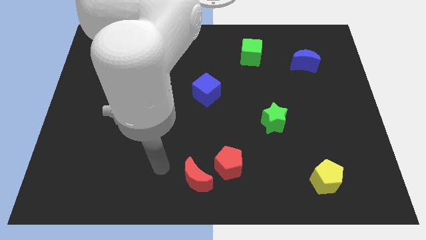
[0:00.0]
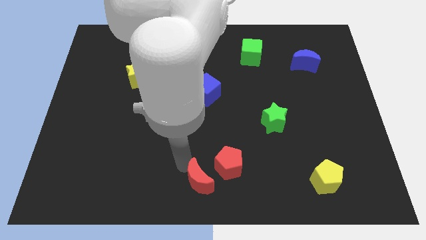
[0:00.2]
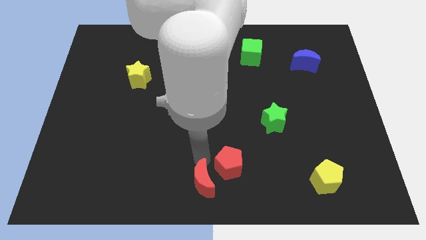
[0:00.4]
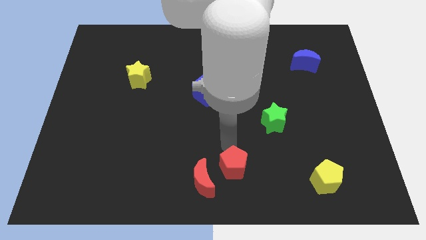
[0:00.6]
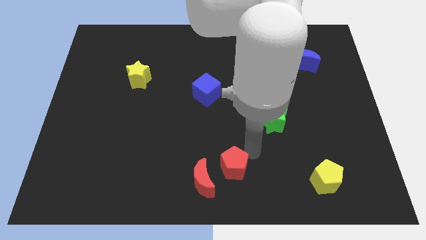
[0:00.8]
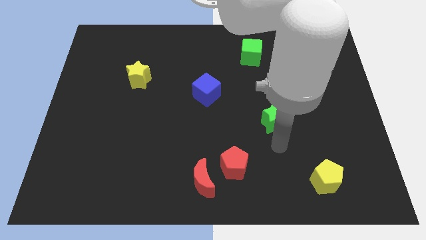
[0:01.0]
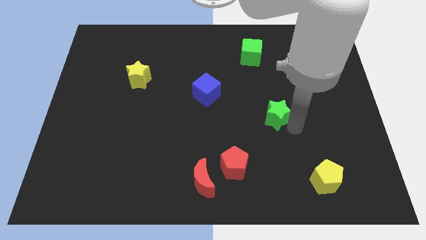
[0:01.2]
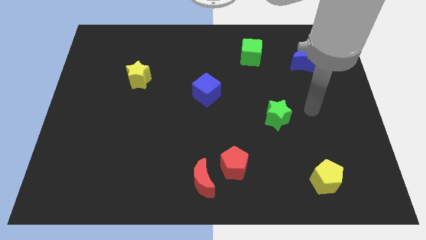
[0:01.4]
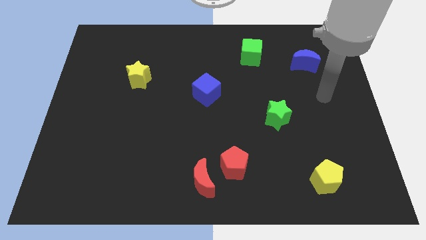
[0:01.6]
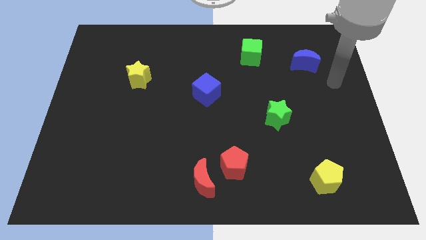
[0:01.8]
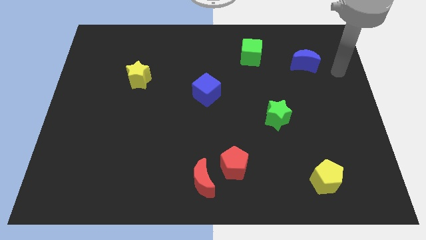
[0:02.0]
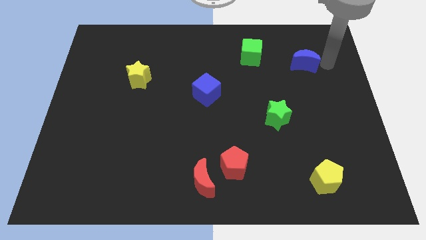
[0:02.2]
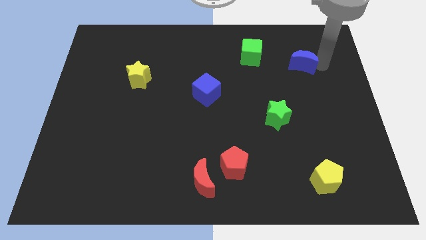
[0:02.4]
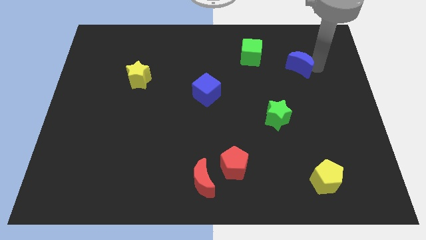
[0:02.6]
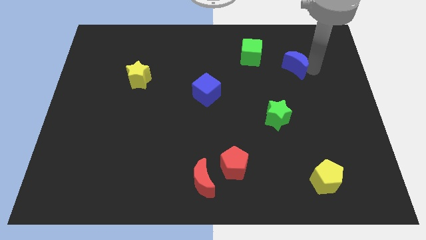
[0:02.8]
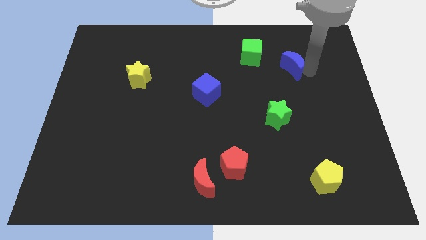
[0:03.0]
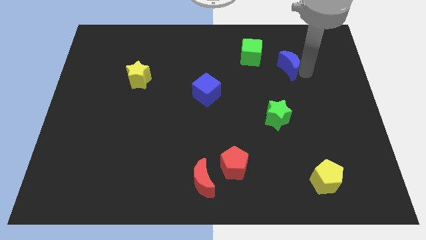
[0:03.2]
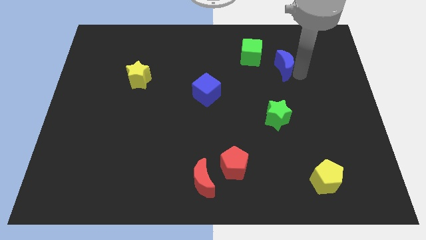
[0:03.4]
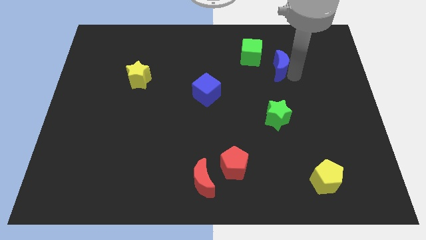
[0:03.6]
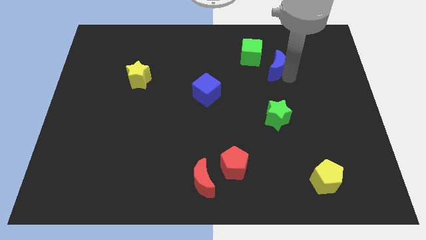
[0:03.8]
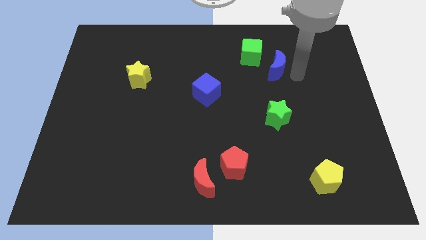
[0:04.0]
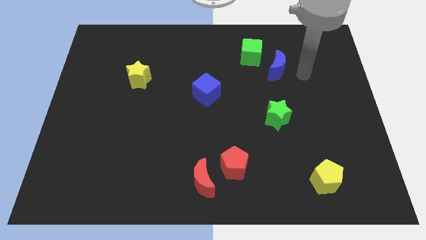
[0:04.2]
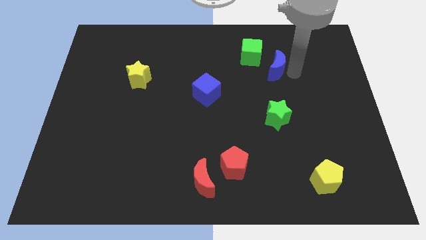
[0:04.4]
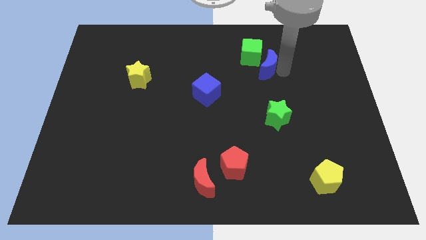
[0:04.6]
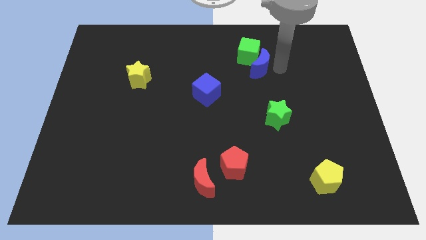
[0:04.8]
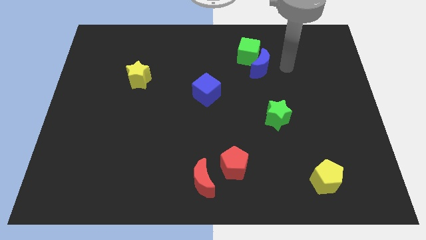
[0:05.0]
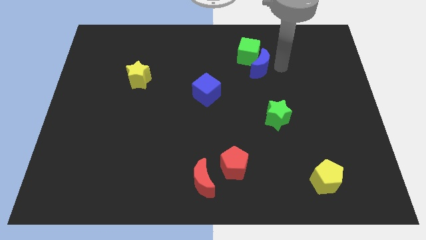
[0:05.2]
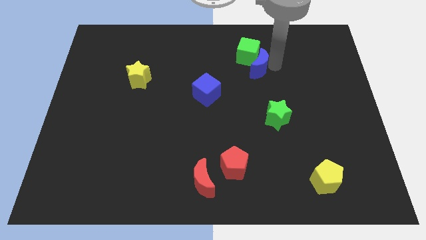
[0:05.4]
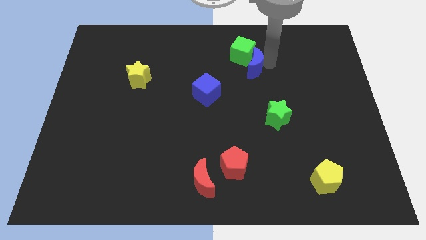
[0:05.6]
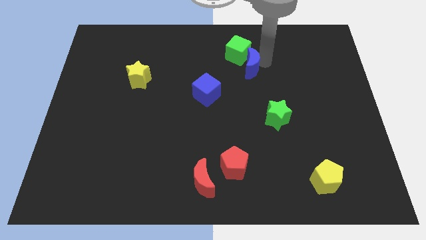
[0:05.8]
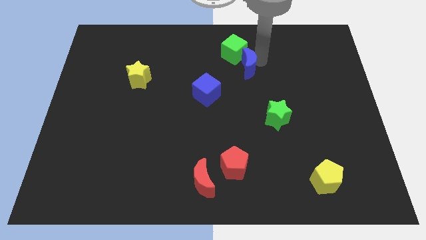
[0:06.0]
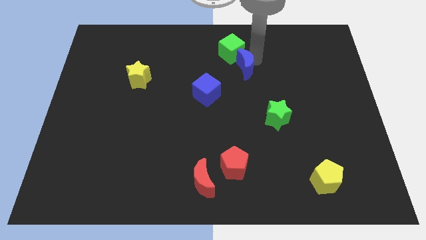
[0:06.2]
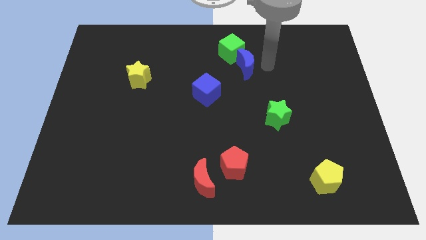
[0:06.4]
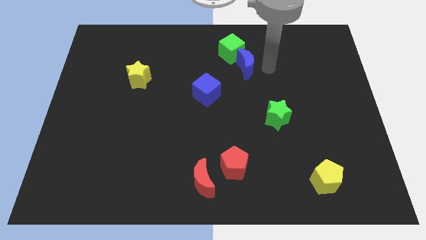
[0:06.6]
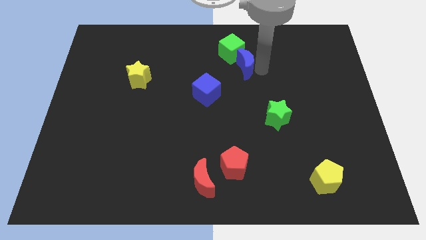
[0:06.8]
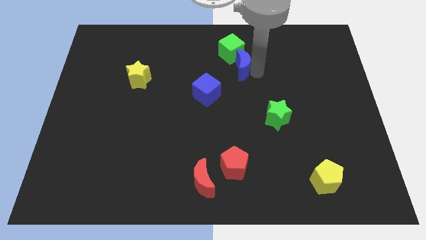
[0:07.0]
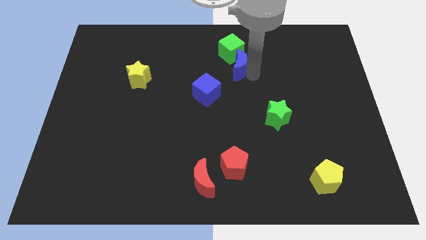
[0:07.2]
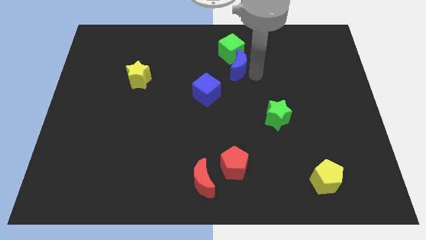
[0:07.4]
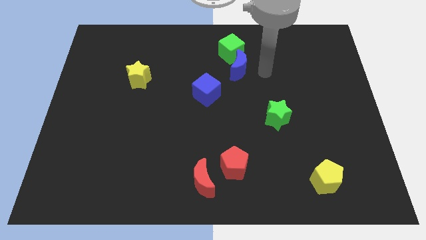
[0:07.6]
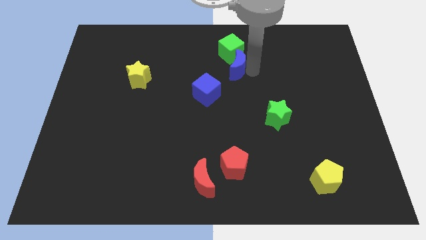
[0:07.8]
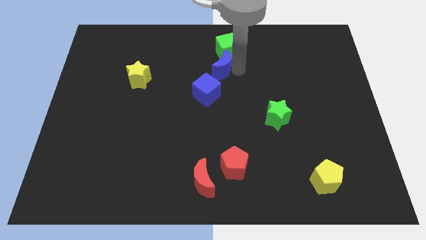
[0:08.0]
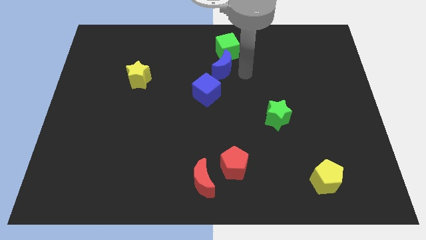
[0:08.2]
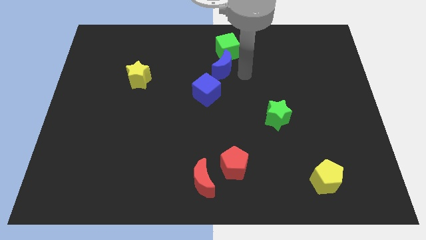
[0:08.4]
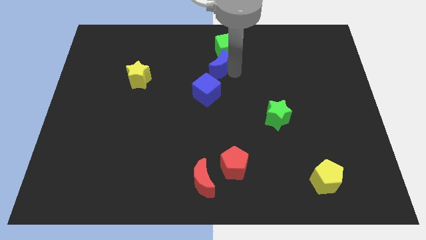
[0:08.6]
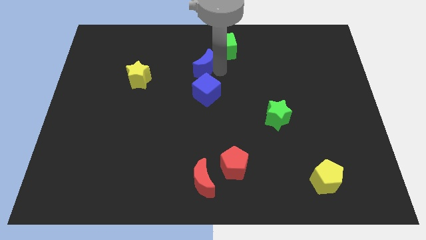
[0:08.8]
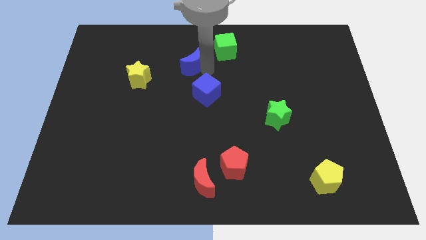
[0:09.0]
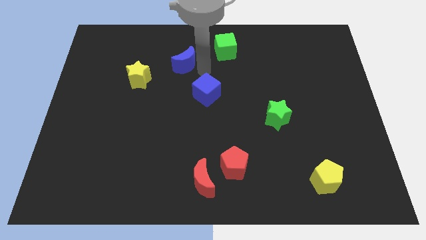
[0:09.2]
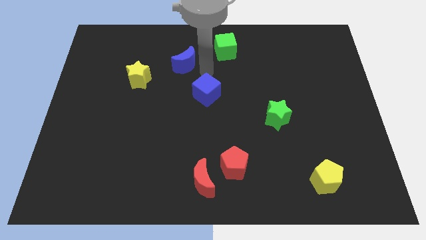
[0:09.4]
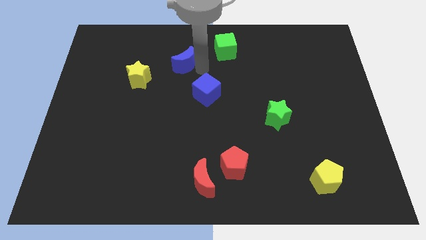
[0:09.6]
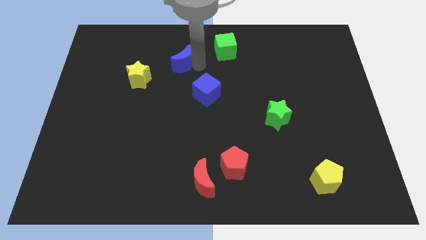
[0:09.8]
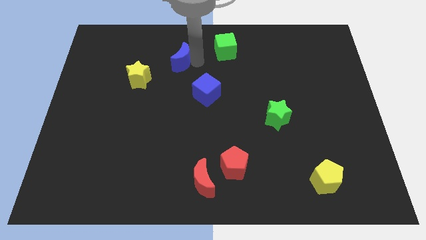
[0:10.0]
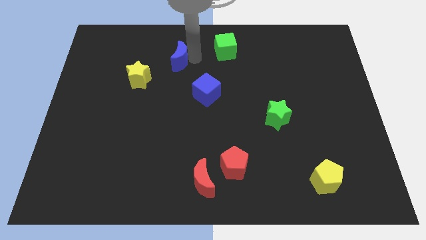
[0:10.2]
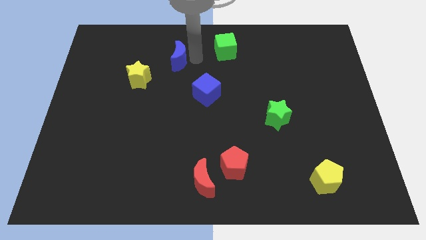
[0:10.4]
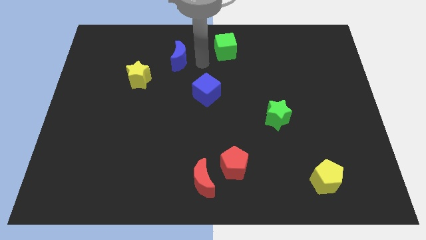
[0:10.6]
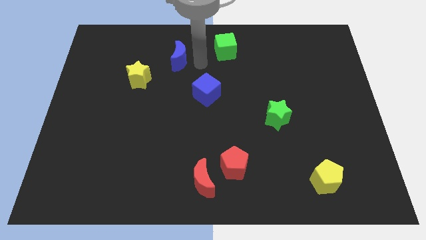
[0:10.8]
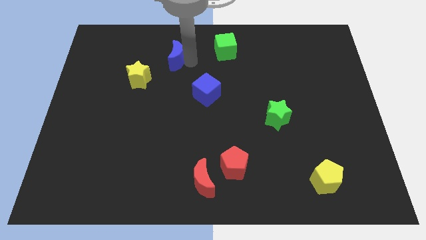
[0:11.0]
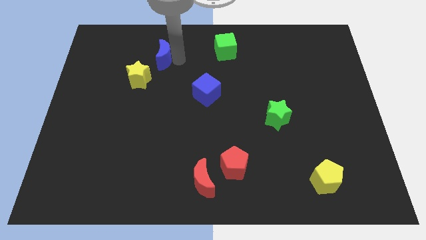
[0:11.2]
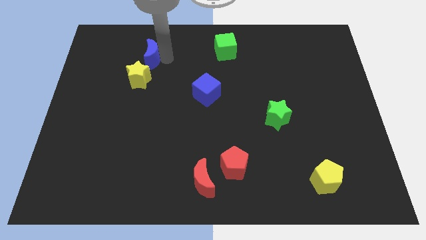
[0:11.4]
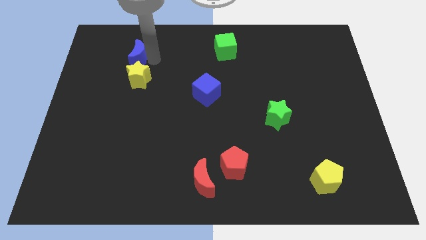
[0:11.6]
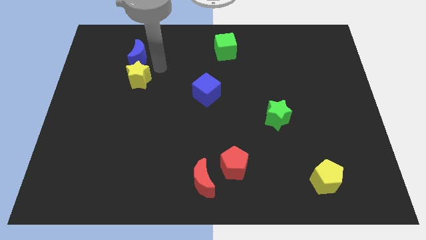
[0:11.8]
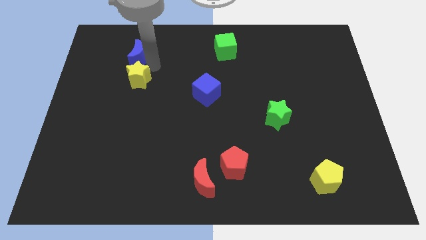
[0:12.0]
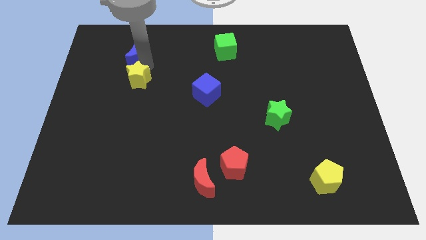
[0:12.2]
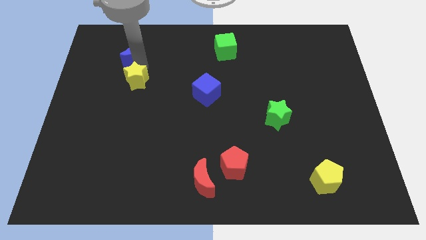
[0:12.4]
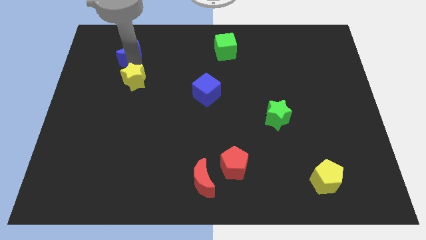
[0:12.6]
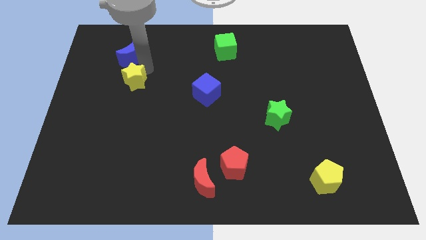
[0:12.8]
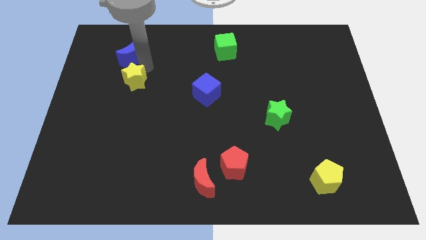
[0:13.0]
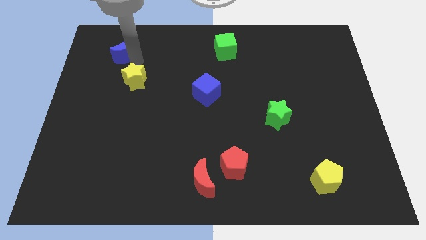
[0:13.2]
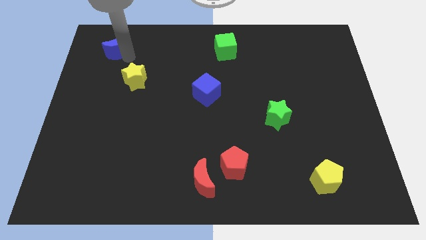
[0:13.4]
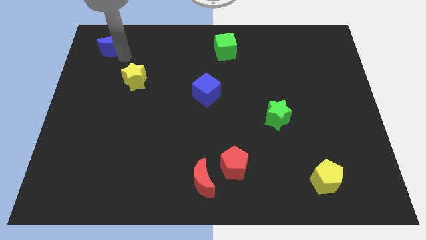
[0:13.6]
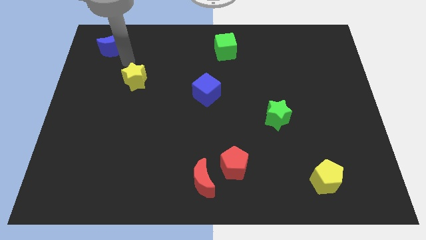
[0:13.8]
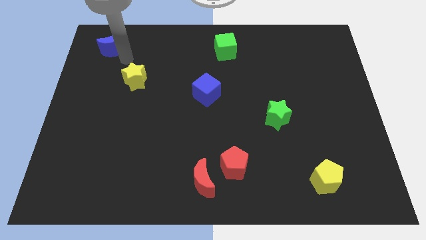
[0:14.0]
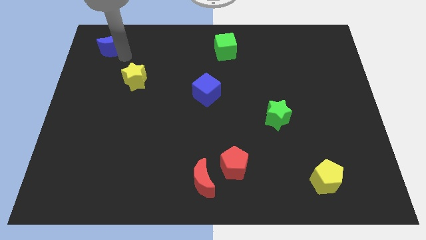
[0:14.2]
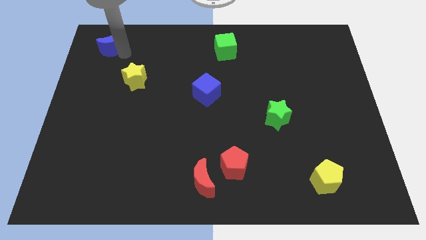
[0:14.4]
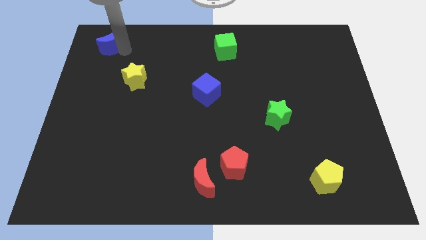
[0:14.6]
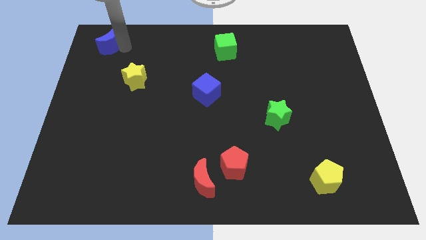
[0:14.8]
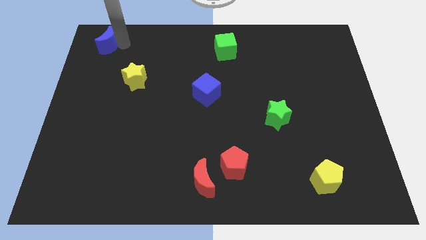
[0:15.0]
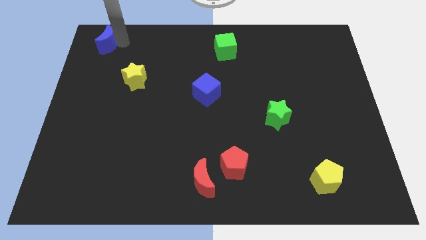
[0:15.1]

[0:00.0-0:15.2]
put the blue moon to the upper left corner
